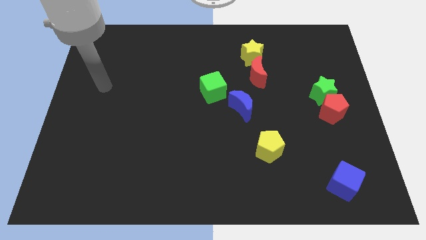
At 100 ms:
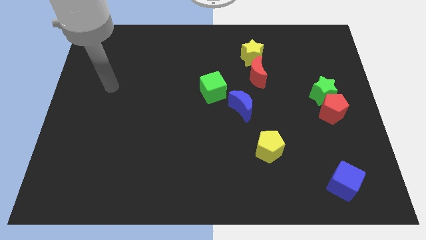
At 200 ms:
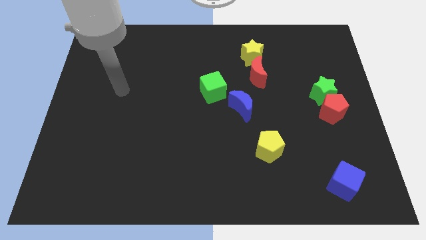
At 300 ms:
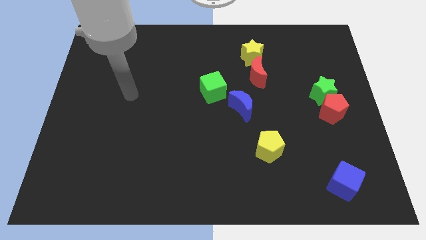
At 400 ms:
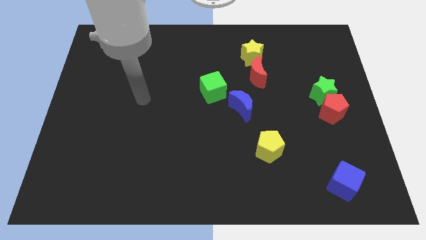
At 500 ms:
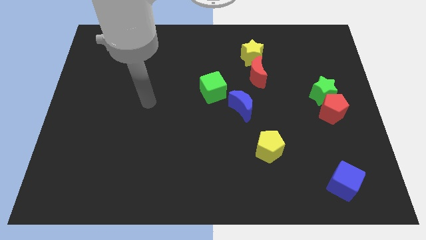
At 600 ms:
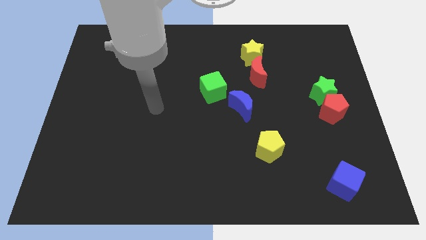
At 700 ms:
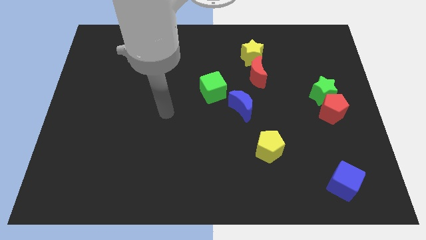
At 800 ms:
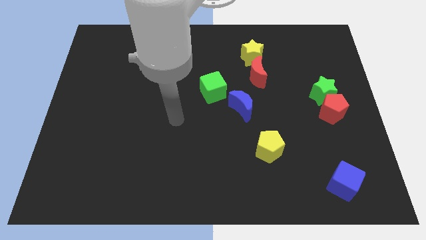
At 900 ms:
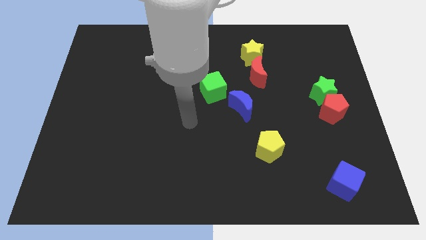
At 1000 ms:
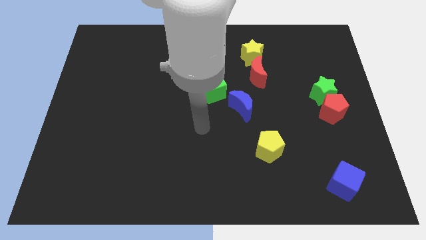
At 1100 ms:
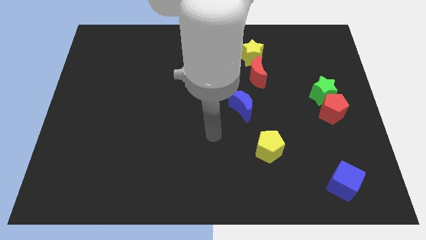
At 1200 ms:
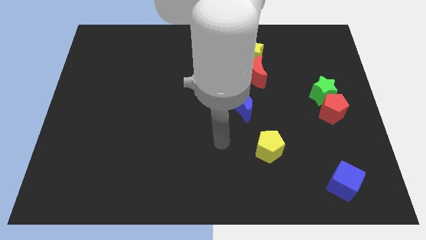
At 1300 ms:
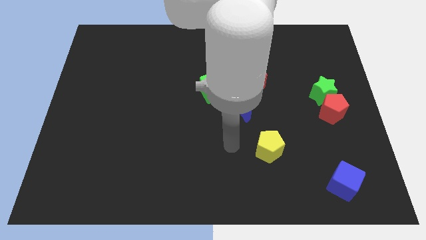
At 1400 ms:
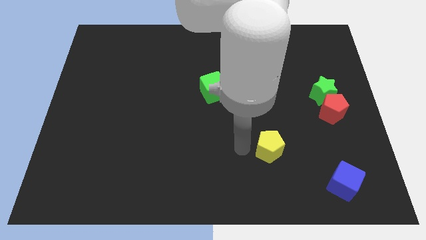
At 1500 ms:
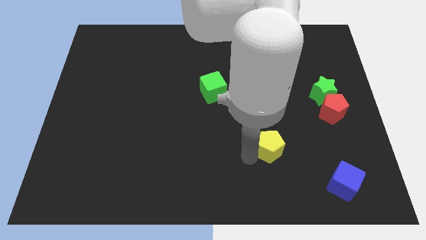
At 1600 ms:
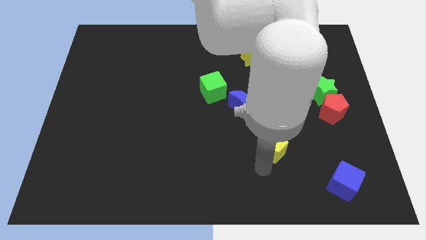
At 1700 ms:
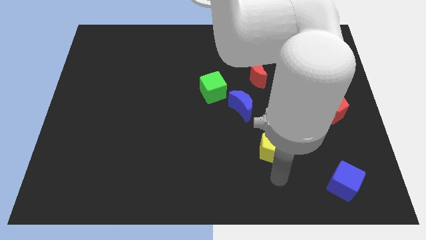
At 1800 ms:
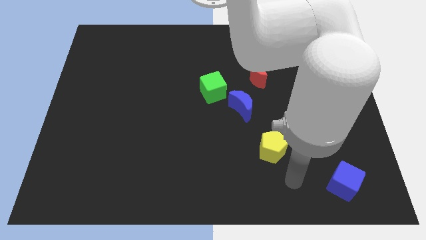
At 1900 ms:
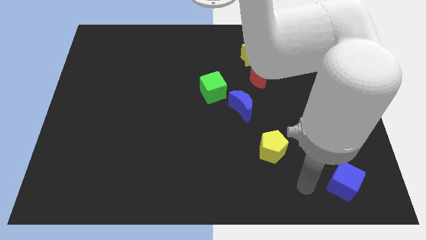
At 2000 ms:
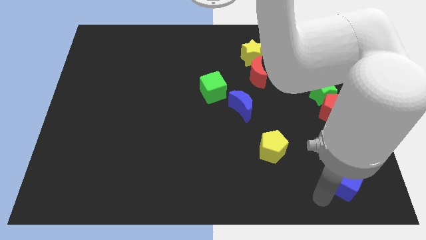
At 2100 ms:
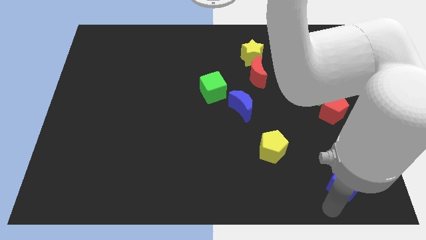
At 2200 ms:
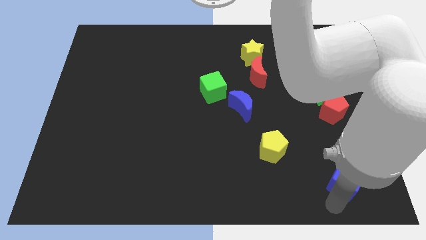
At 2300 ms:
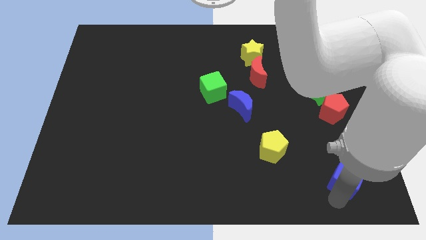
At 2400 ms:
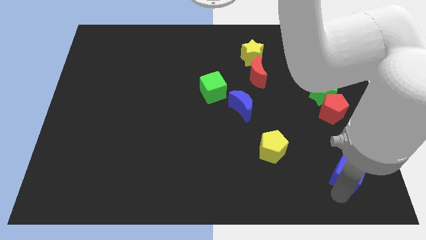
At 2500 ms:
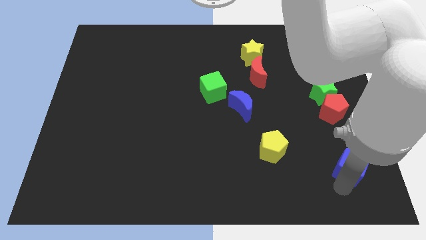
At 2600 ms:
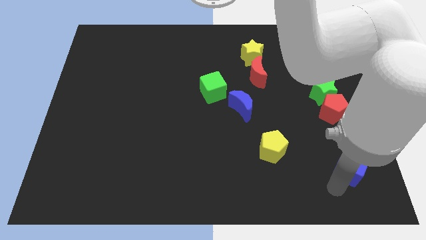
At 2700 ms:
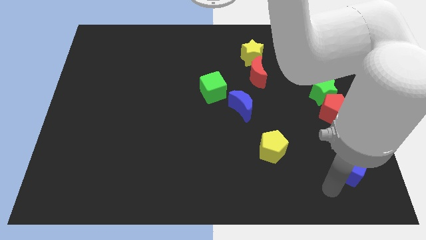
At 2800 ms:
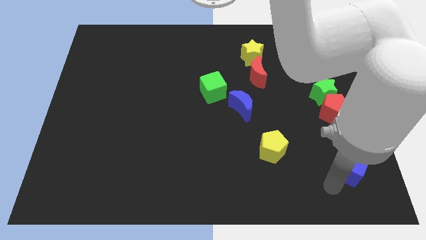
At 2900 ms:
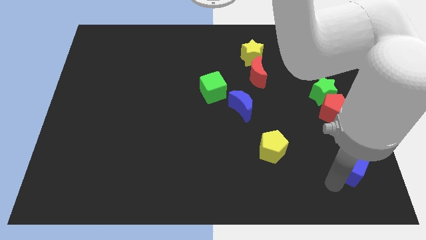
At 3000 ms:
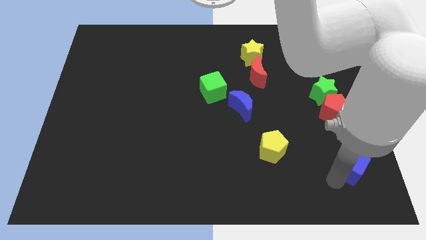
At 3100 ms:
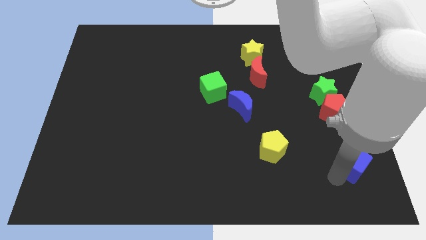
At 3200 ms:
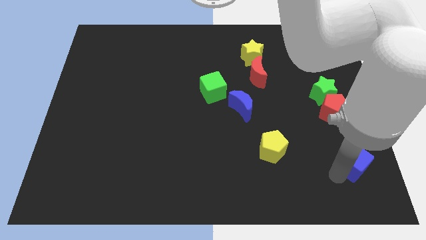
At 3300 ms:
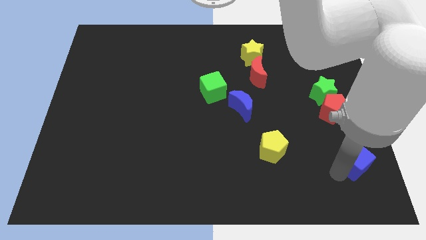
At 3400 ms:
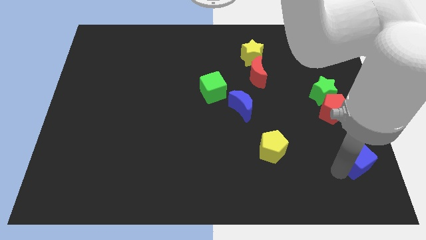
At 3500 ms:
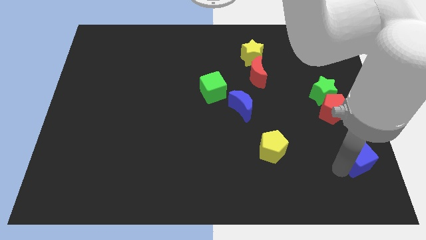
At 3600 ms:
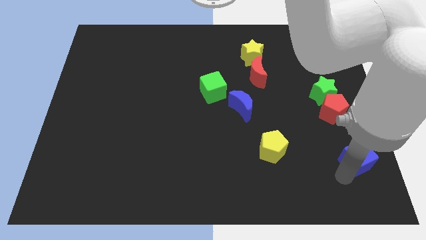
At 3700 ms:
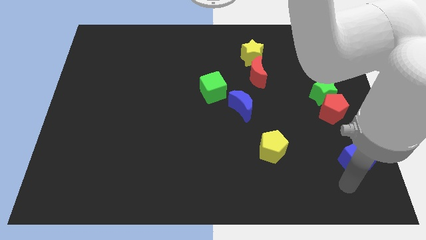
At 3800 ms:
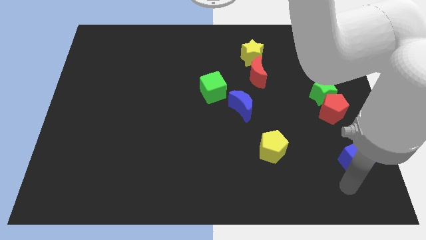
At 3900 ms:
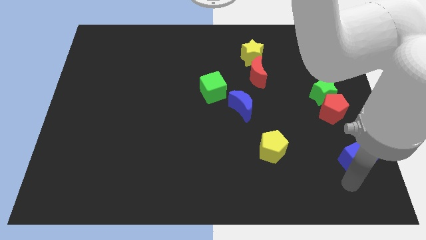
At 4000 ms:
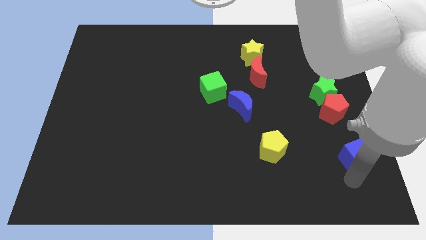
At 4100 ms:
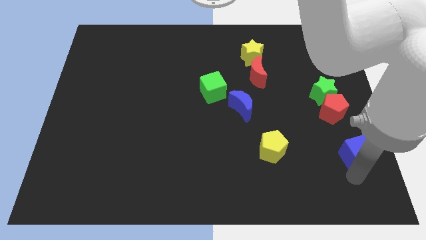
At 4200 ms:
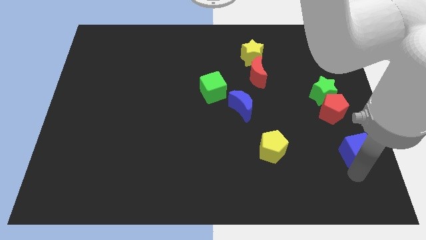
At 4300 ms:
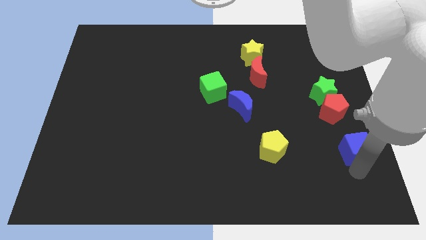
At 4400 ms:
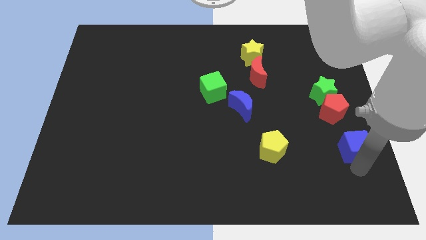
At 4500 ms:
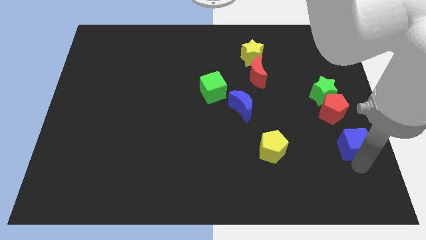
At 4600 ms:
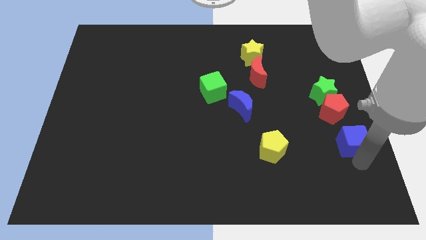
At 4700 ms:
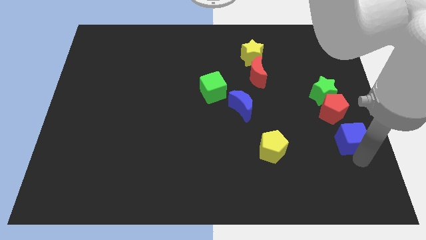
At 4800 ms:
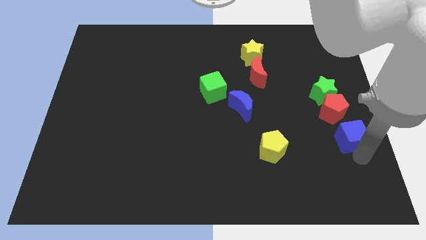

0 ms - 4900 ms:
move the blue cube to the right side

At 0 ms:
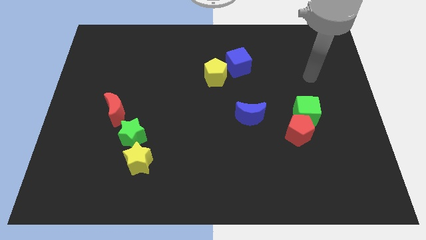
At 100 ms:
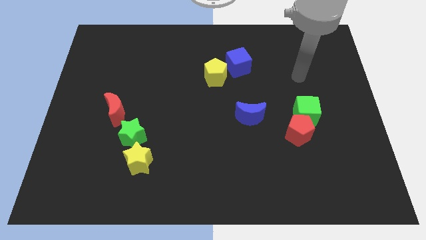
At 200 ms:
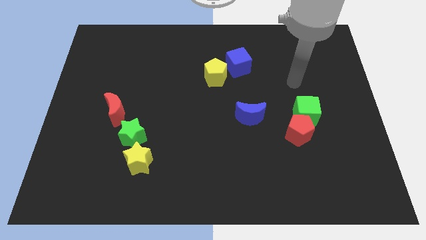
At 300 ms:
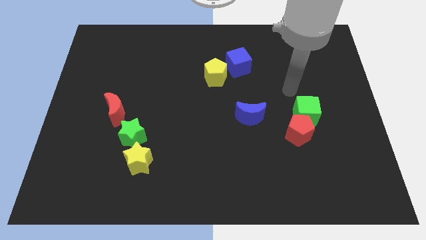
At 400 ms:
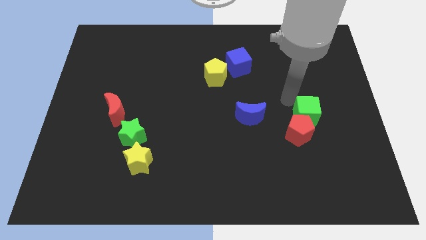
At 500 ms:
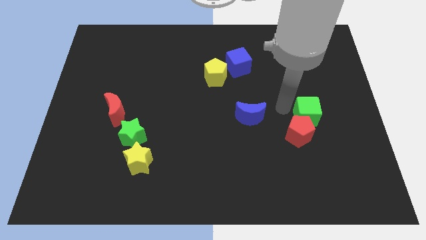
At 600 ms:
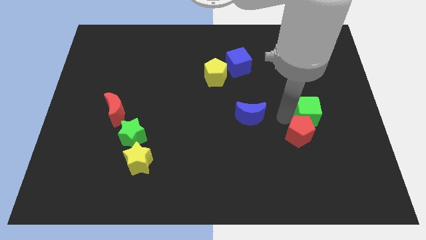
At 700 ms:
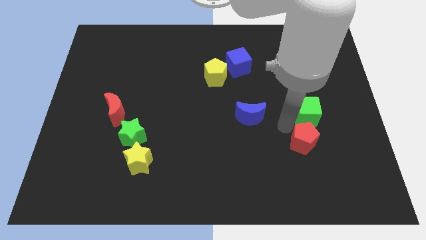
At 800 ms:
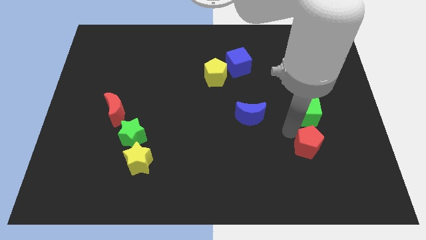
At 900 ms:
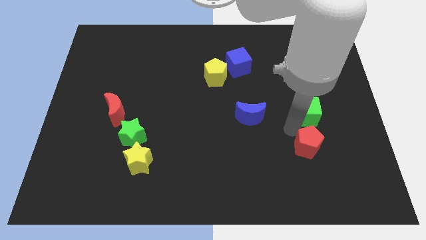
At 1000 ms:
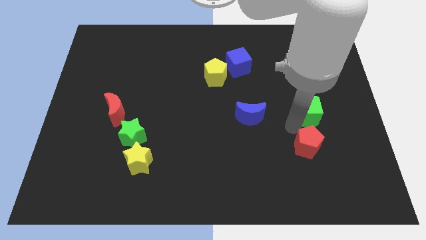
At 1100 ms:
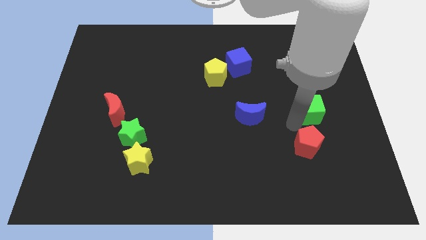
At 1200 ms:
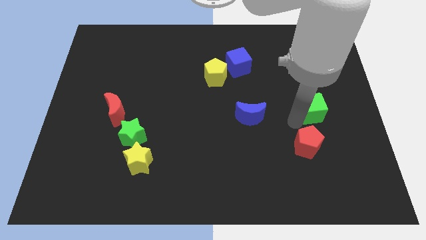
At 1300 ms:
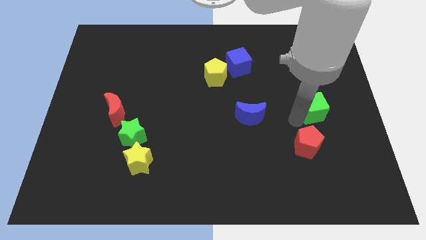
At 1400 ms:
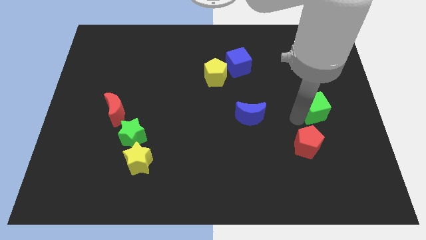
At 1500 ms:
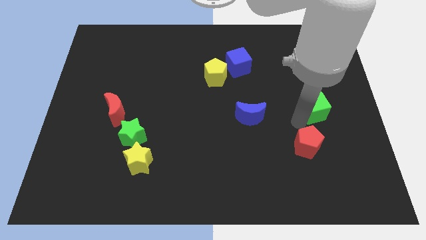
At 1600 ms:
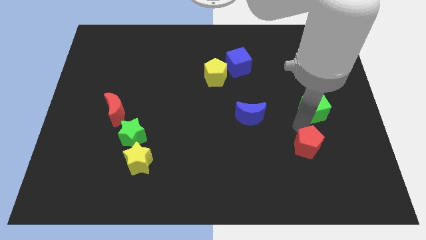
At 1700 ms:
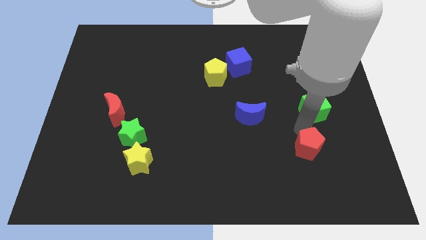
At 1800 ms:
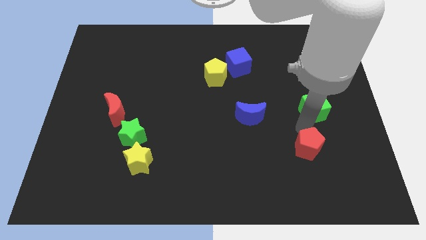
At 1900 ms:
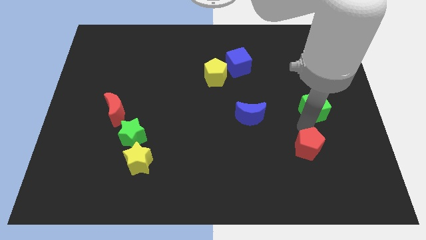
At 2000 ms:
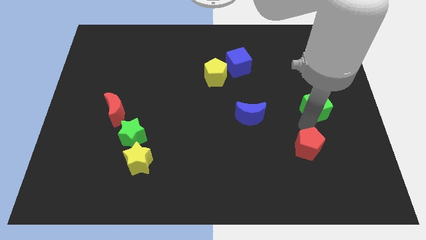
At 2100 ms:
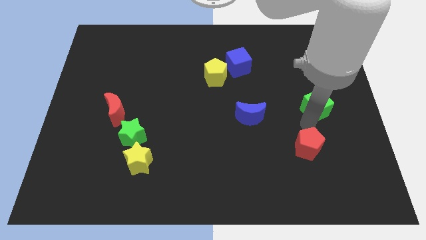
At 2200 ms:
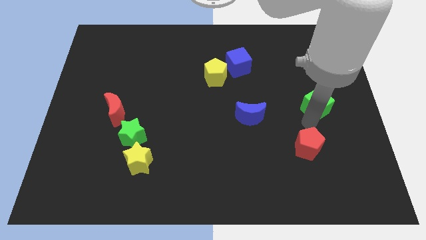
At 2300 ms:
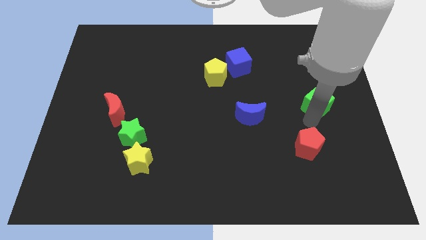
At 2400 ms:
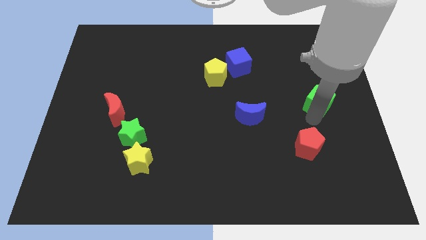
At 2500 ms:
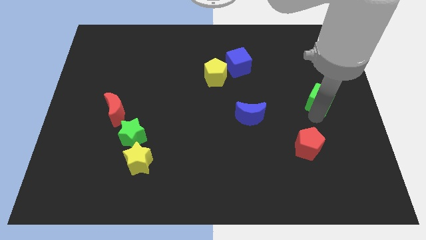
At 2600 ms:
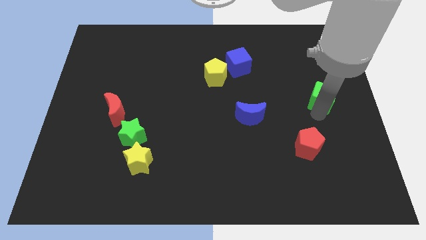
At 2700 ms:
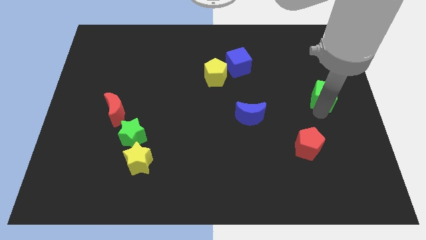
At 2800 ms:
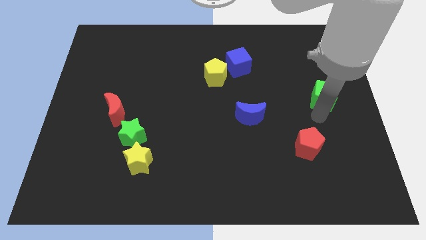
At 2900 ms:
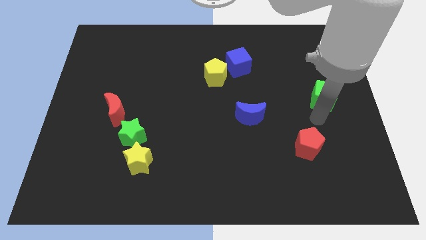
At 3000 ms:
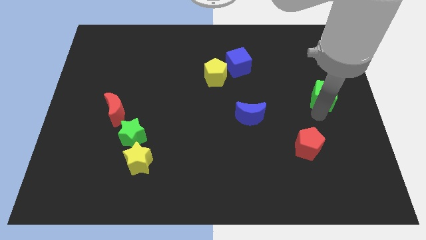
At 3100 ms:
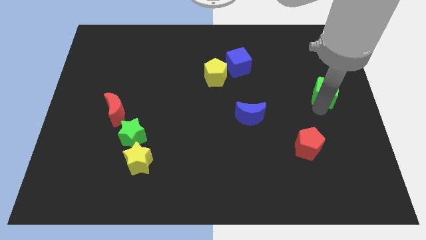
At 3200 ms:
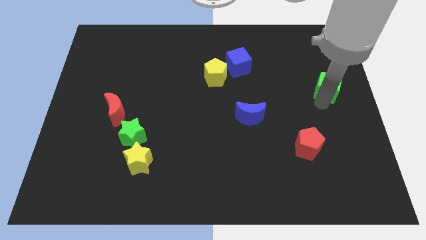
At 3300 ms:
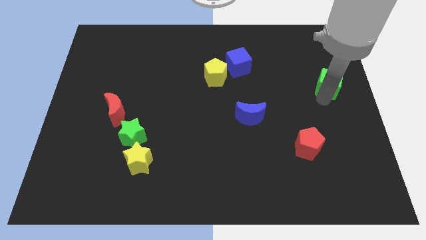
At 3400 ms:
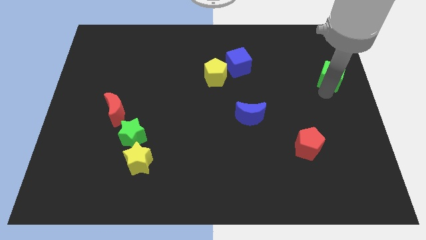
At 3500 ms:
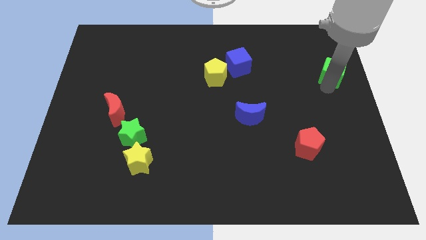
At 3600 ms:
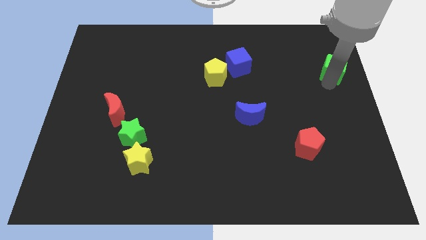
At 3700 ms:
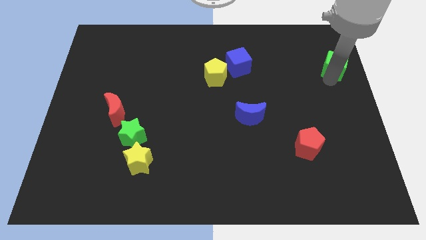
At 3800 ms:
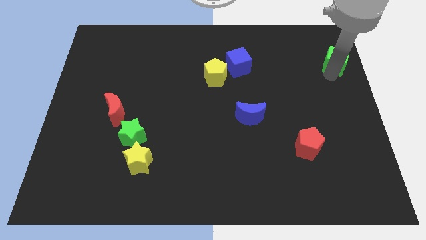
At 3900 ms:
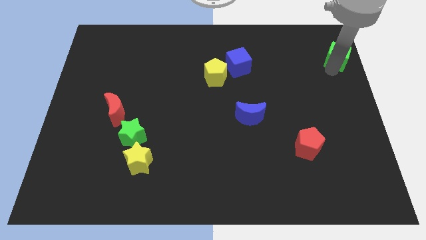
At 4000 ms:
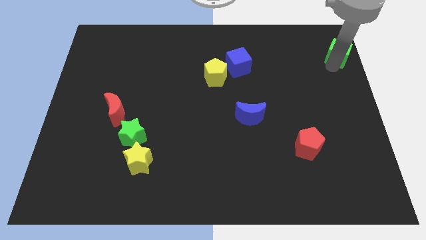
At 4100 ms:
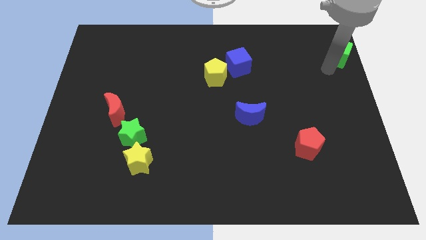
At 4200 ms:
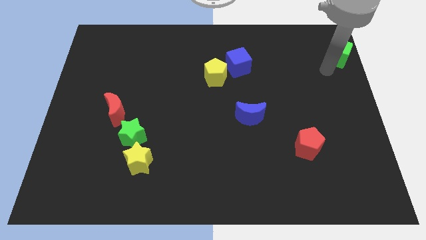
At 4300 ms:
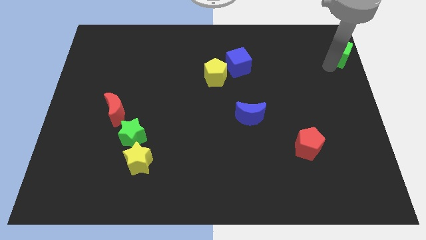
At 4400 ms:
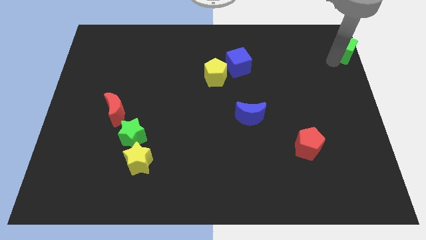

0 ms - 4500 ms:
push the green cube to the top right
